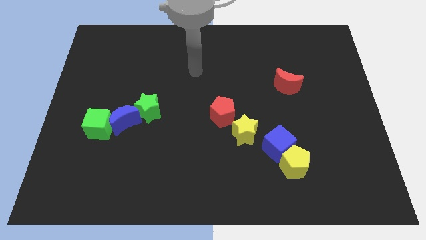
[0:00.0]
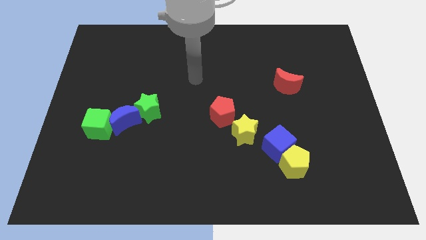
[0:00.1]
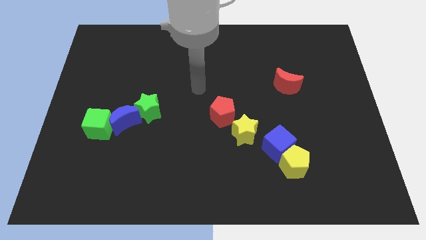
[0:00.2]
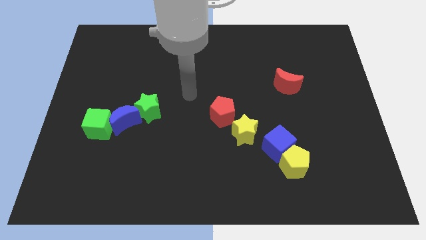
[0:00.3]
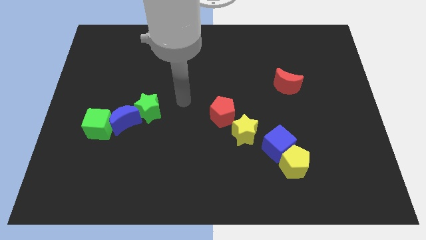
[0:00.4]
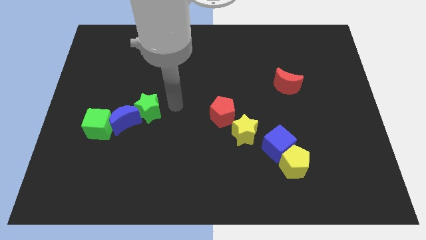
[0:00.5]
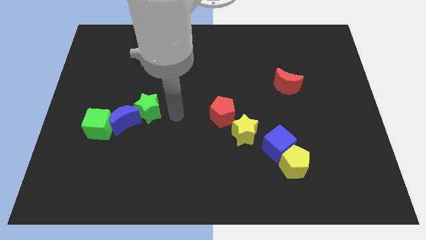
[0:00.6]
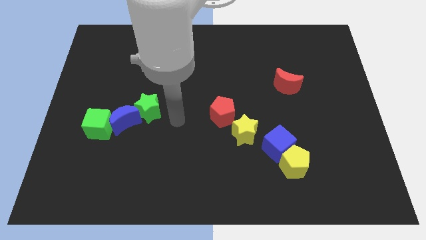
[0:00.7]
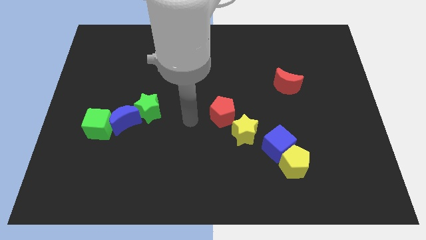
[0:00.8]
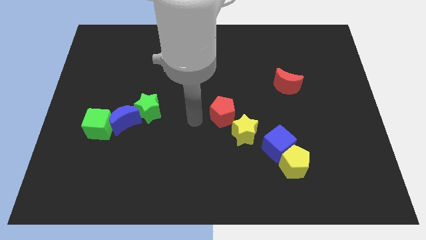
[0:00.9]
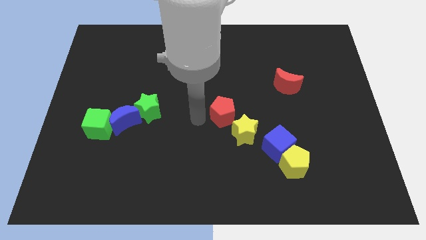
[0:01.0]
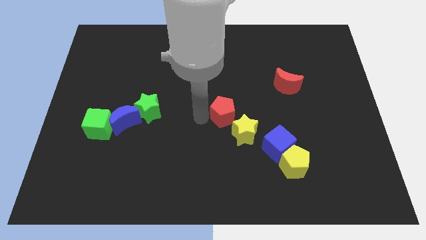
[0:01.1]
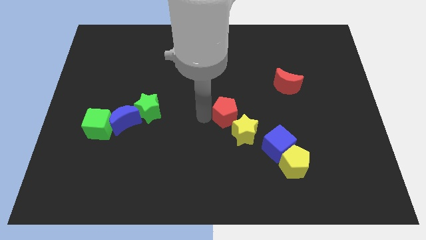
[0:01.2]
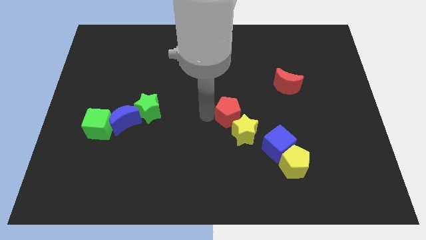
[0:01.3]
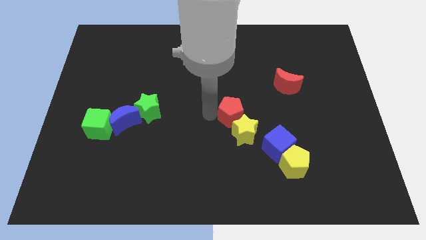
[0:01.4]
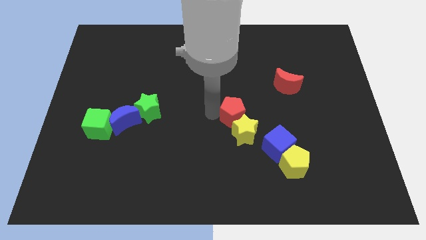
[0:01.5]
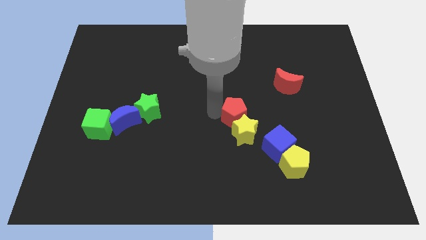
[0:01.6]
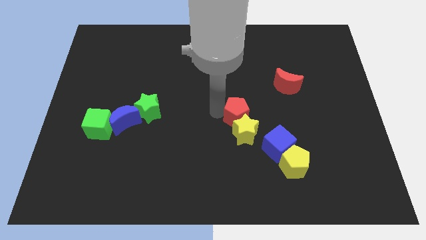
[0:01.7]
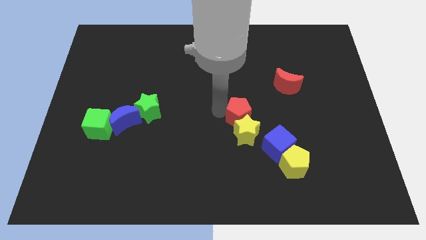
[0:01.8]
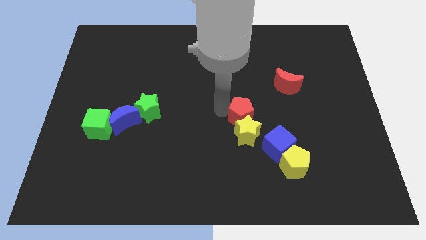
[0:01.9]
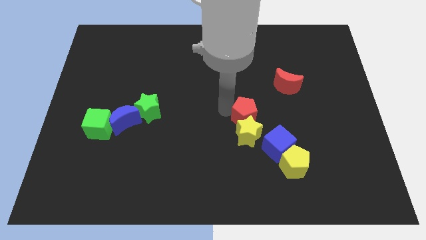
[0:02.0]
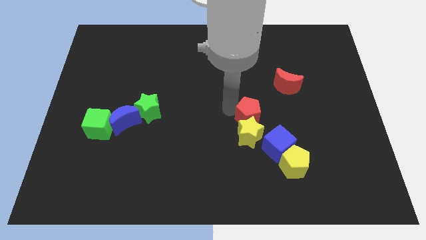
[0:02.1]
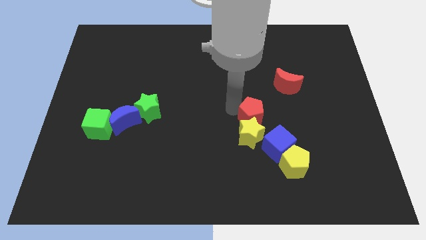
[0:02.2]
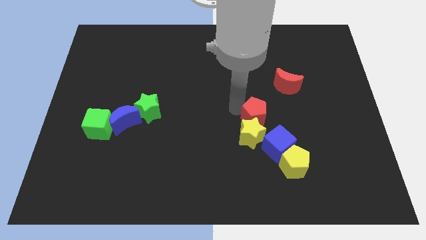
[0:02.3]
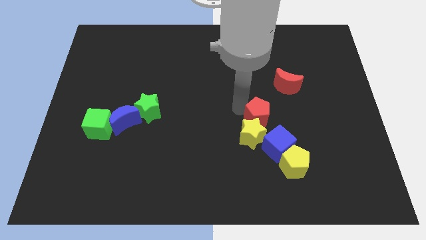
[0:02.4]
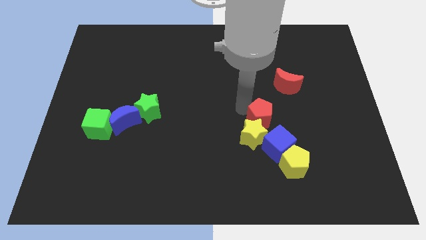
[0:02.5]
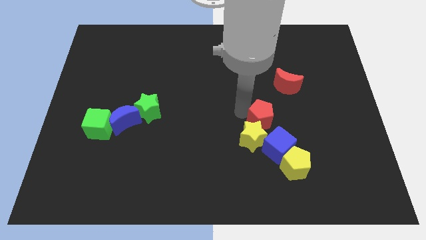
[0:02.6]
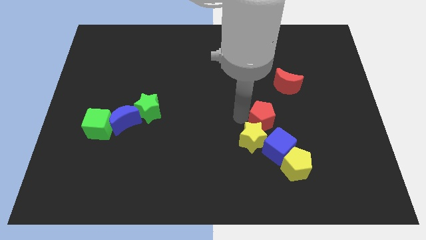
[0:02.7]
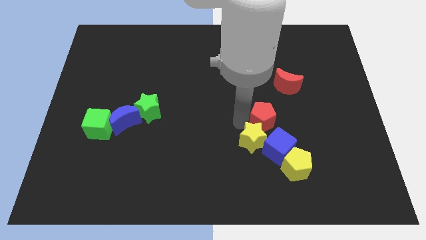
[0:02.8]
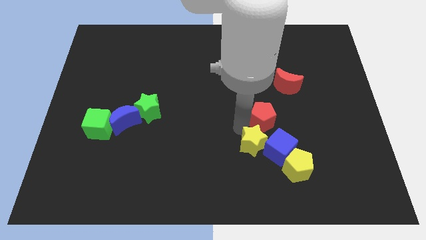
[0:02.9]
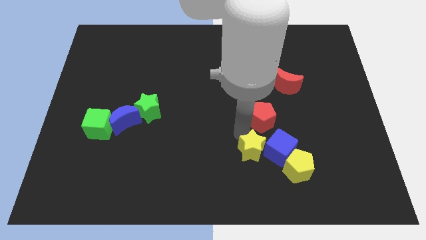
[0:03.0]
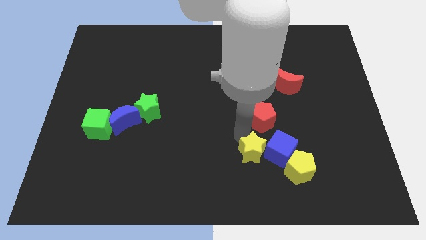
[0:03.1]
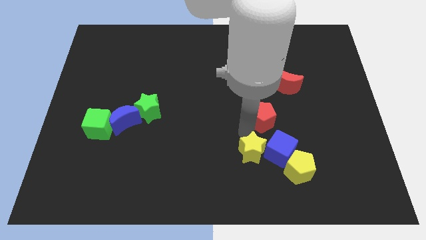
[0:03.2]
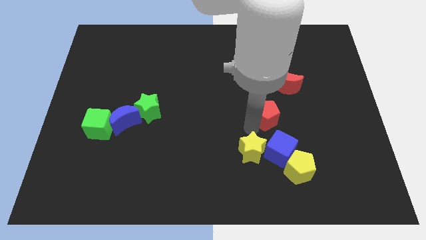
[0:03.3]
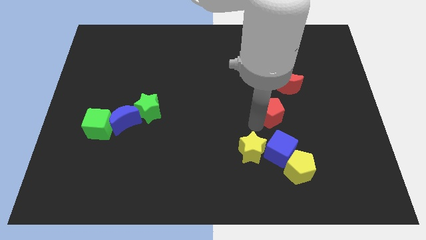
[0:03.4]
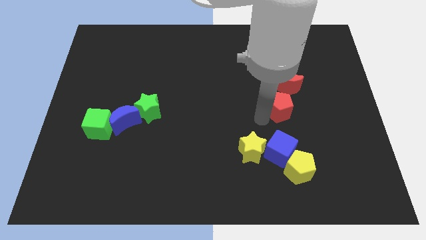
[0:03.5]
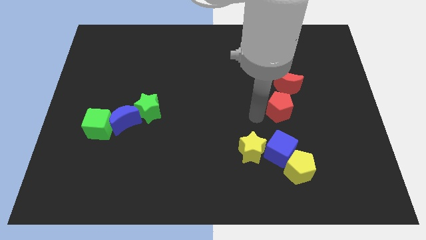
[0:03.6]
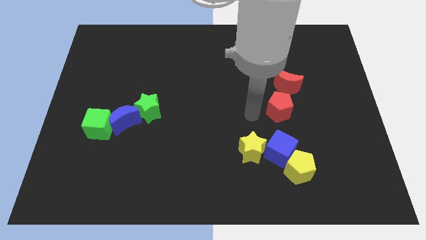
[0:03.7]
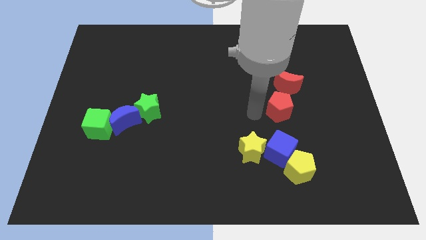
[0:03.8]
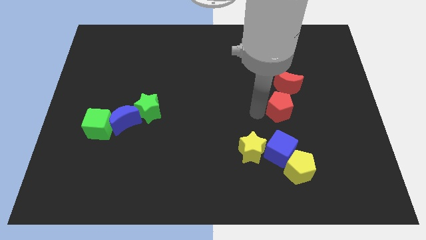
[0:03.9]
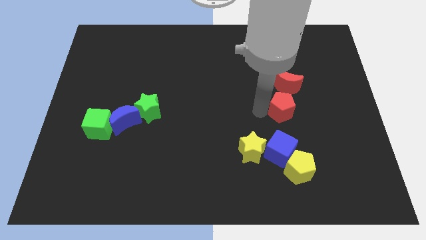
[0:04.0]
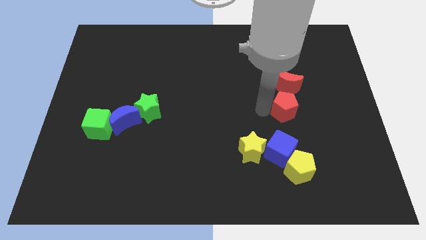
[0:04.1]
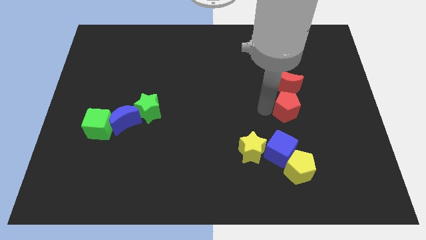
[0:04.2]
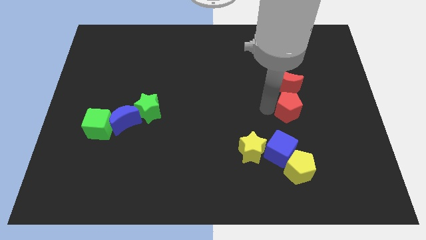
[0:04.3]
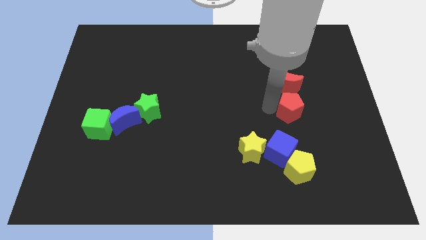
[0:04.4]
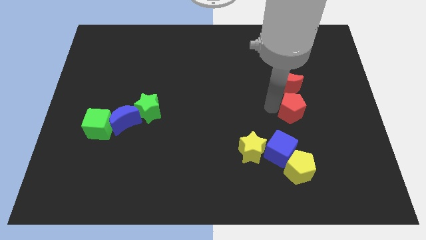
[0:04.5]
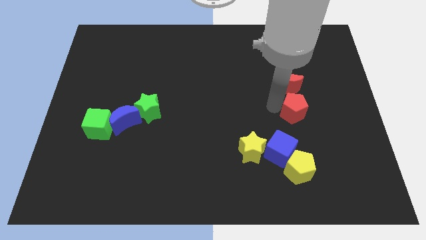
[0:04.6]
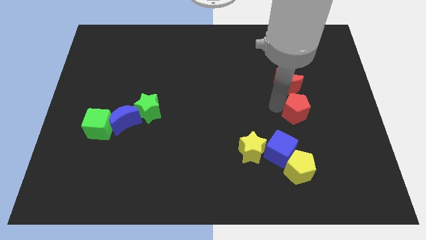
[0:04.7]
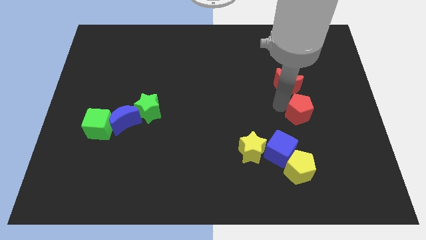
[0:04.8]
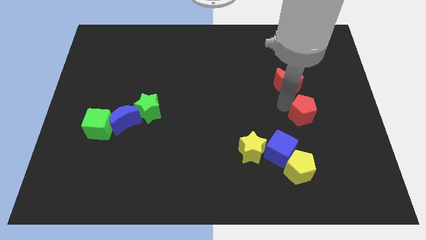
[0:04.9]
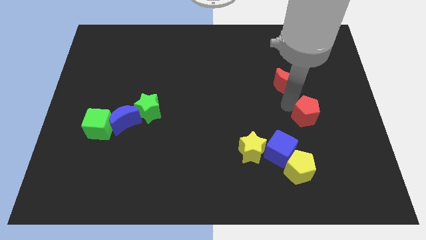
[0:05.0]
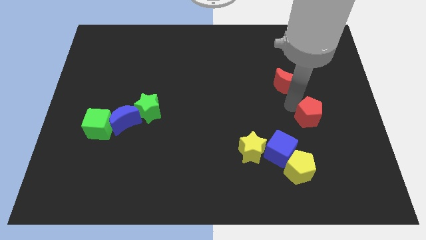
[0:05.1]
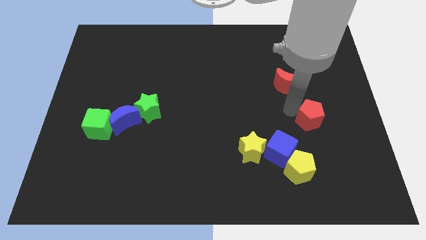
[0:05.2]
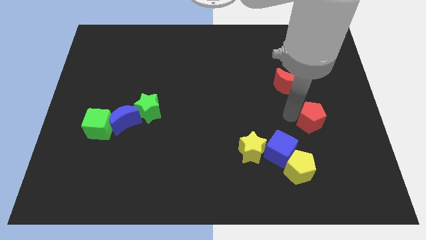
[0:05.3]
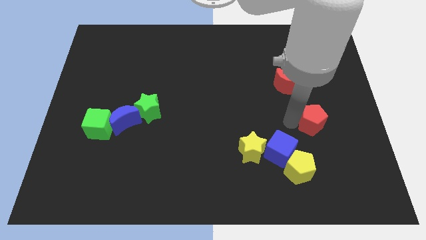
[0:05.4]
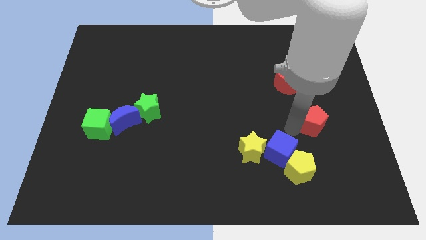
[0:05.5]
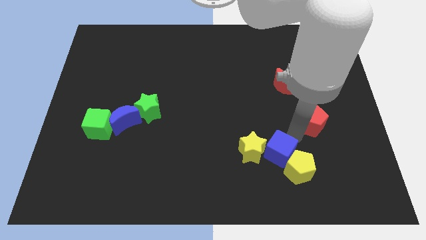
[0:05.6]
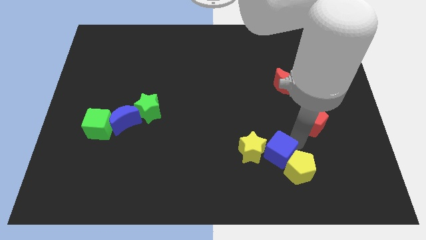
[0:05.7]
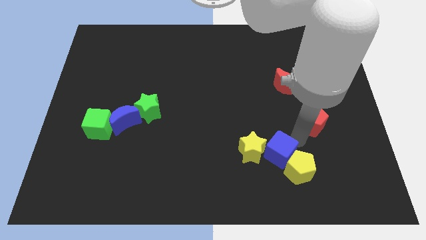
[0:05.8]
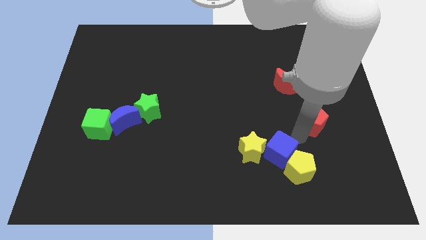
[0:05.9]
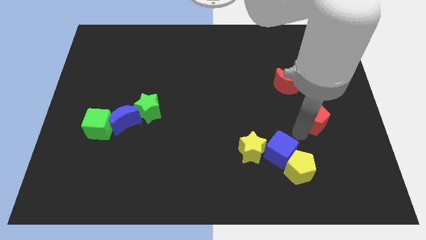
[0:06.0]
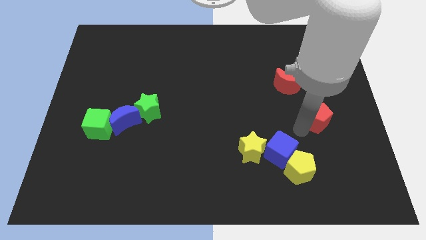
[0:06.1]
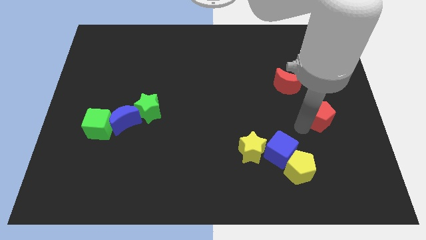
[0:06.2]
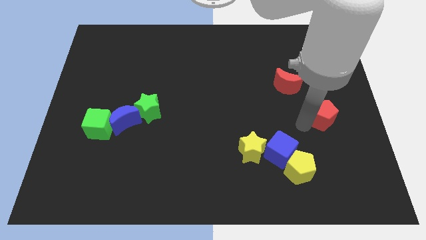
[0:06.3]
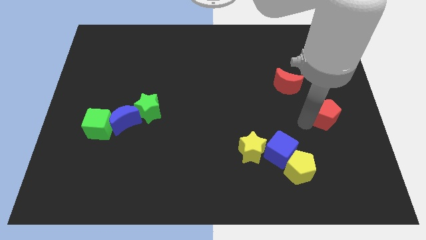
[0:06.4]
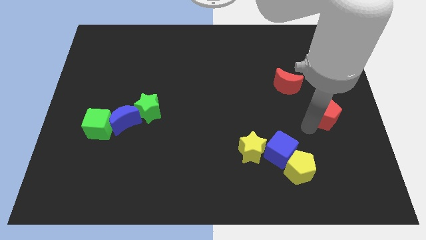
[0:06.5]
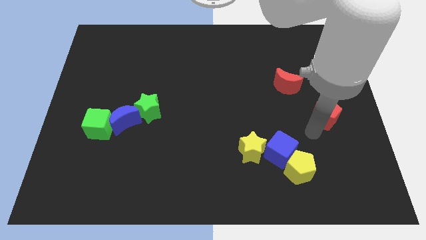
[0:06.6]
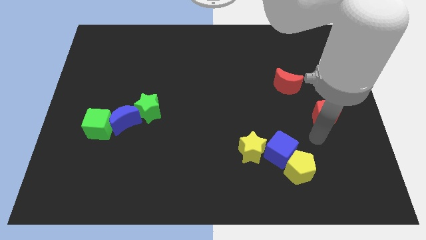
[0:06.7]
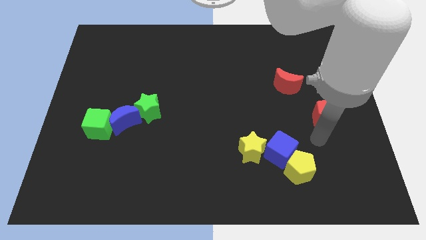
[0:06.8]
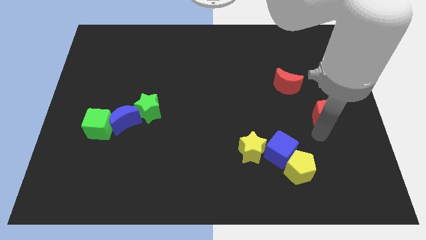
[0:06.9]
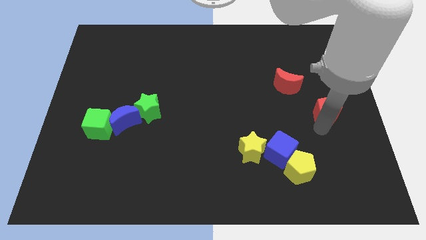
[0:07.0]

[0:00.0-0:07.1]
move the red pentagon to the center right
